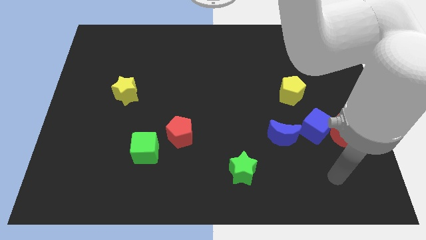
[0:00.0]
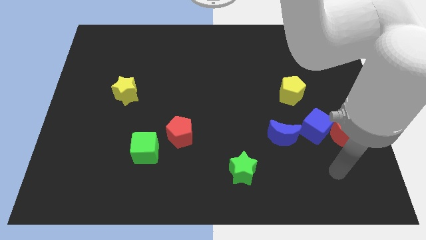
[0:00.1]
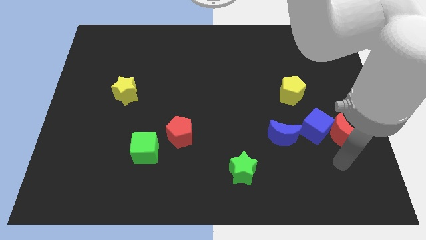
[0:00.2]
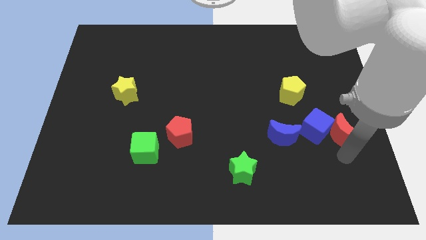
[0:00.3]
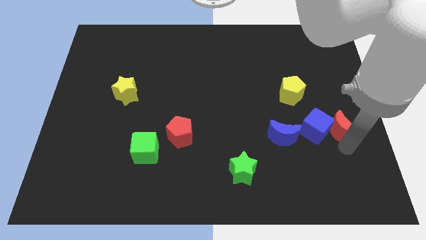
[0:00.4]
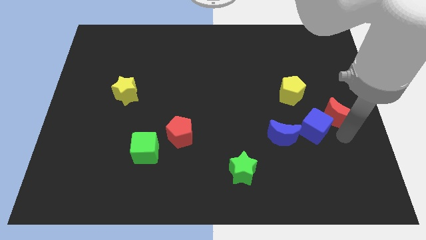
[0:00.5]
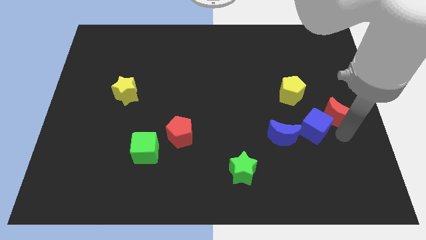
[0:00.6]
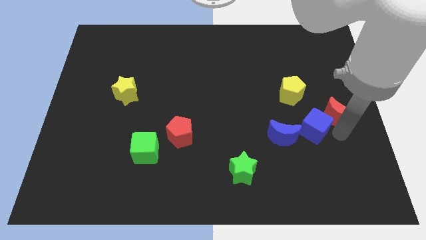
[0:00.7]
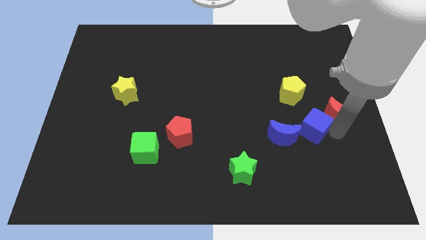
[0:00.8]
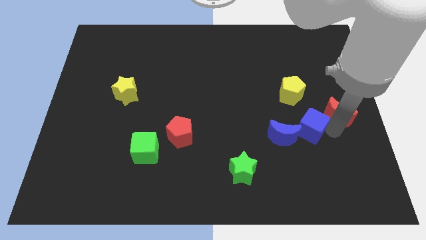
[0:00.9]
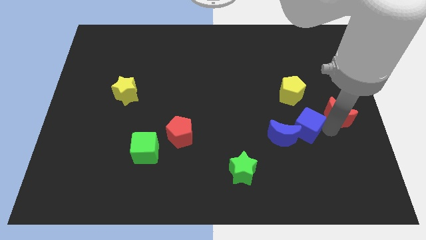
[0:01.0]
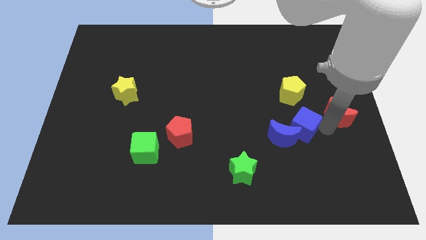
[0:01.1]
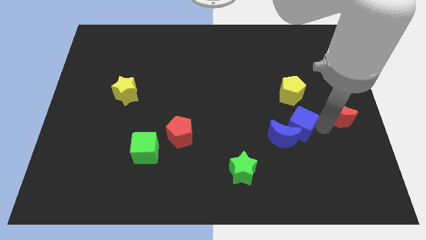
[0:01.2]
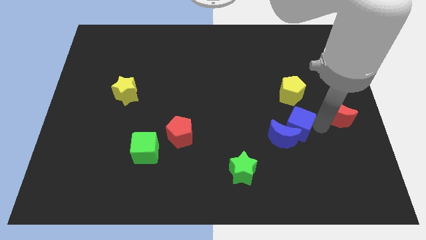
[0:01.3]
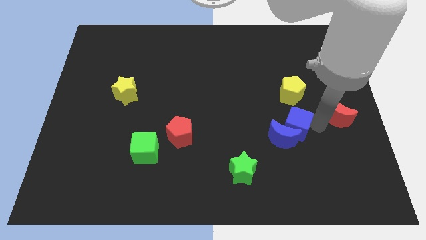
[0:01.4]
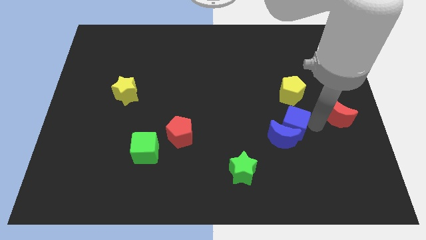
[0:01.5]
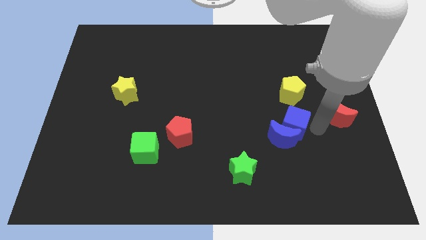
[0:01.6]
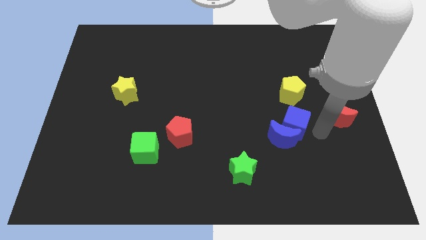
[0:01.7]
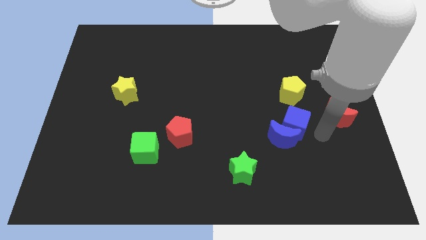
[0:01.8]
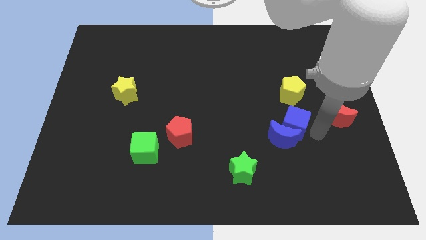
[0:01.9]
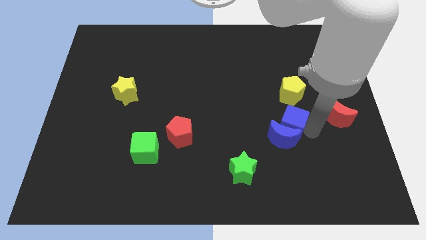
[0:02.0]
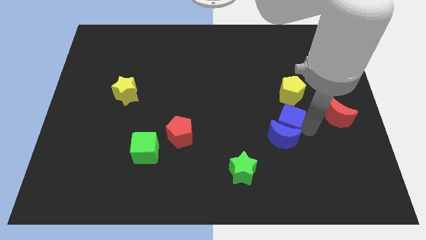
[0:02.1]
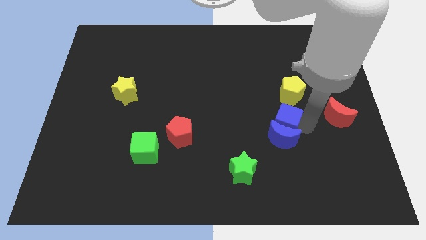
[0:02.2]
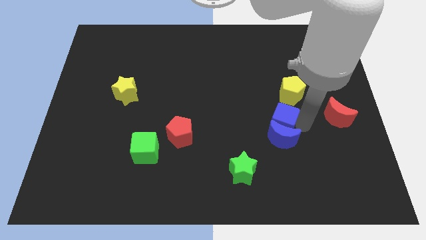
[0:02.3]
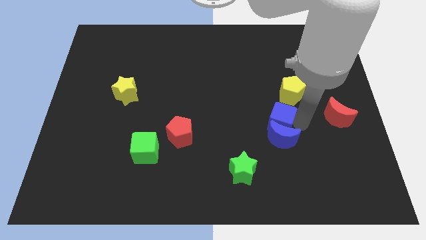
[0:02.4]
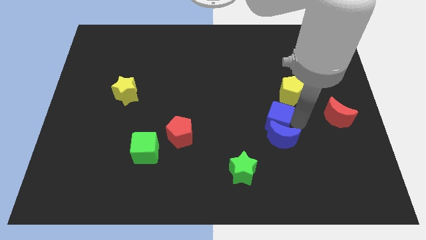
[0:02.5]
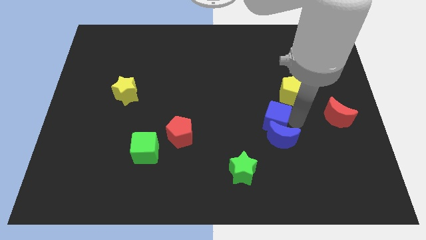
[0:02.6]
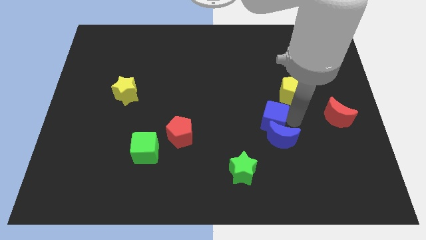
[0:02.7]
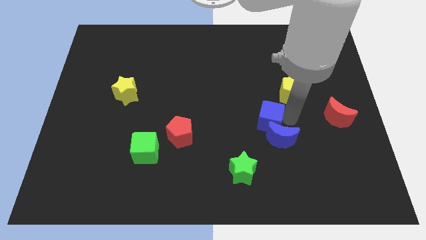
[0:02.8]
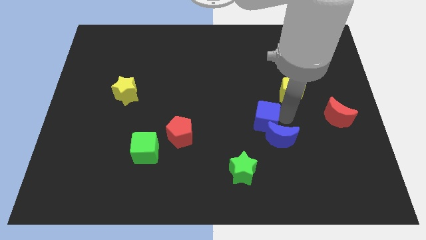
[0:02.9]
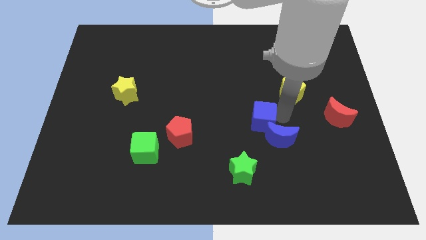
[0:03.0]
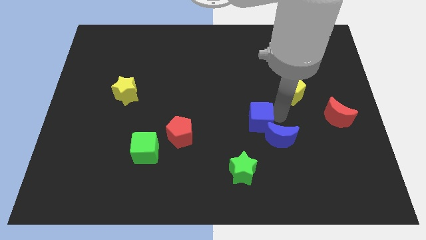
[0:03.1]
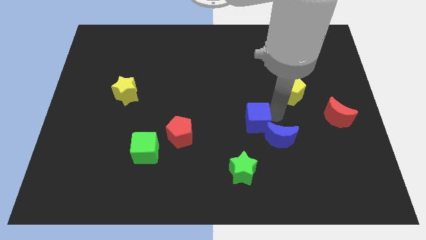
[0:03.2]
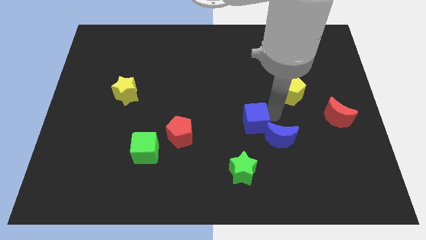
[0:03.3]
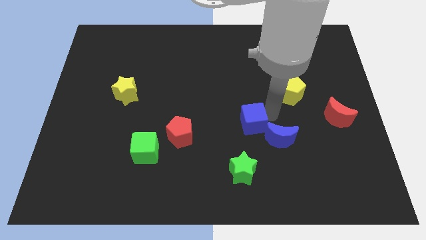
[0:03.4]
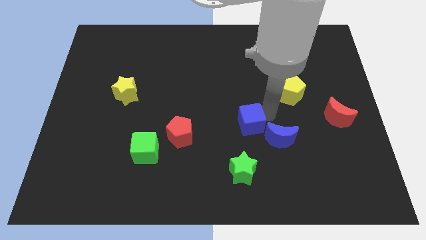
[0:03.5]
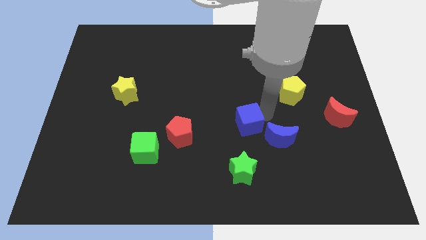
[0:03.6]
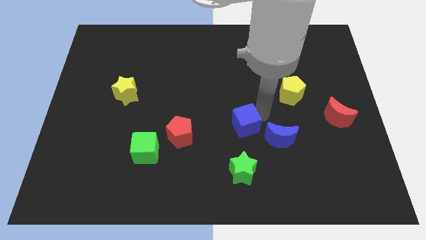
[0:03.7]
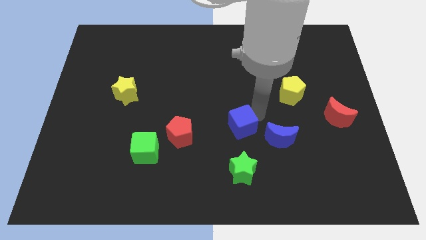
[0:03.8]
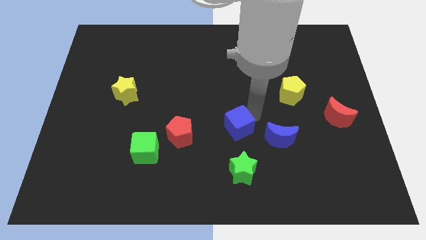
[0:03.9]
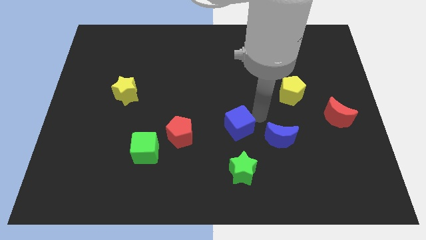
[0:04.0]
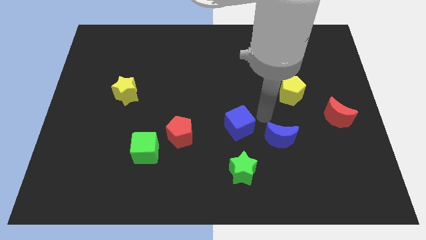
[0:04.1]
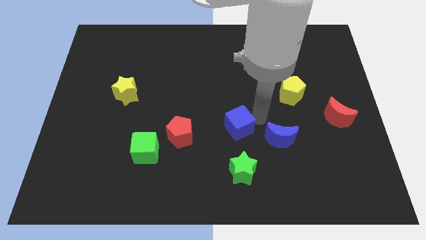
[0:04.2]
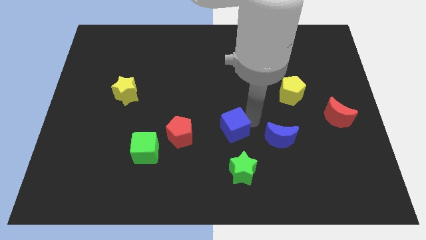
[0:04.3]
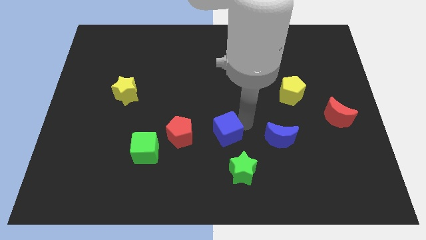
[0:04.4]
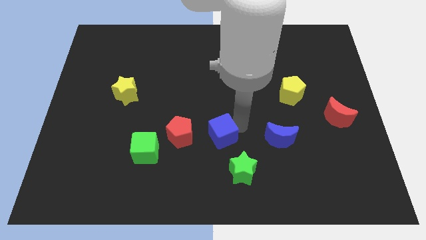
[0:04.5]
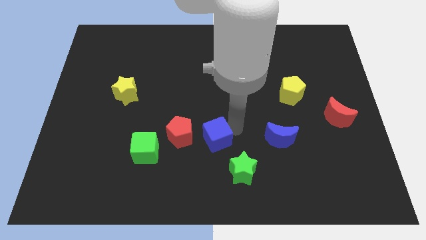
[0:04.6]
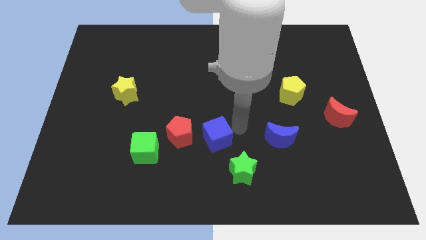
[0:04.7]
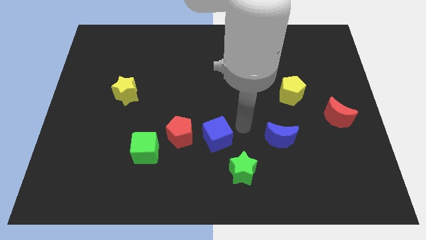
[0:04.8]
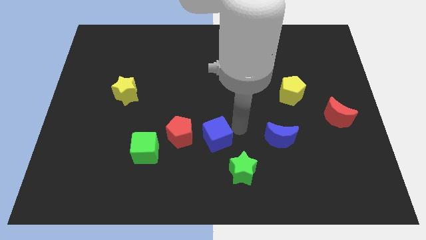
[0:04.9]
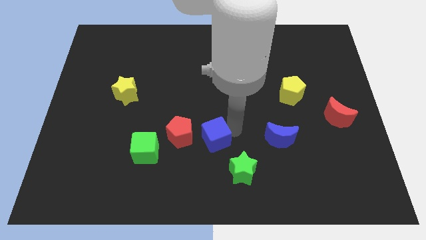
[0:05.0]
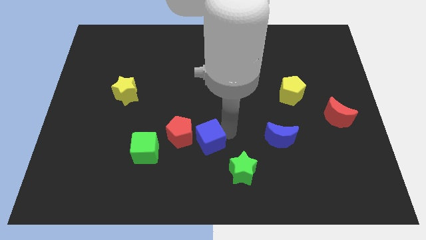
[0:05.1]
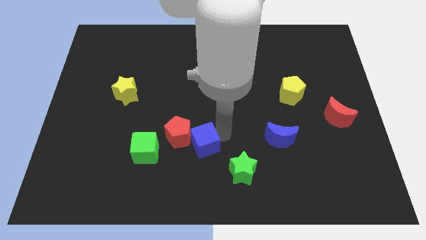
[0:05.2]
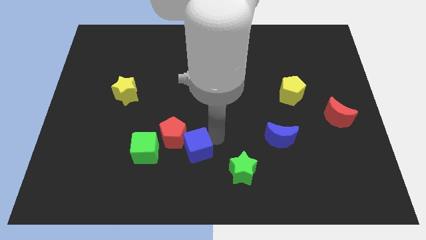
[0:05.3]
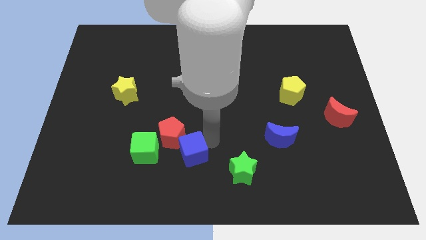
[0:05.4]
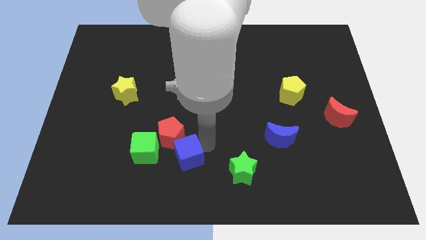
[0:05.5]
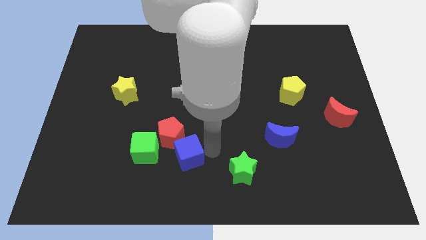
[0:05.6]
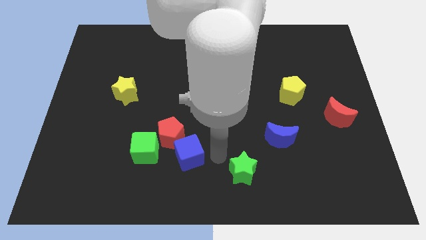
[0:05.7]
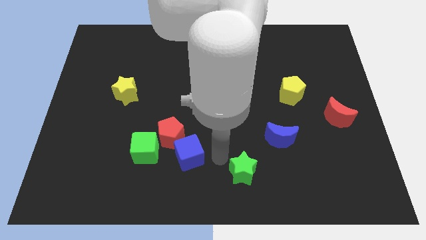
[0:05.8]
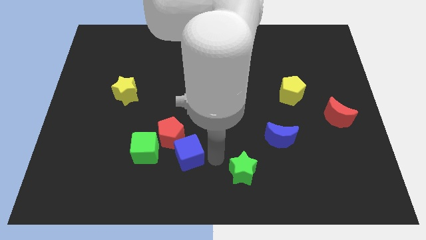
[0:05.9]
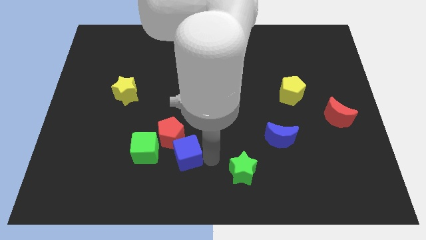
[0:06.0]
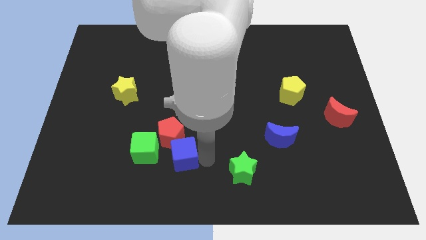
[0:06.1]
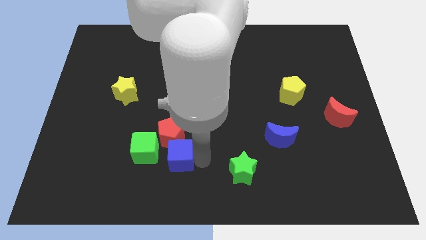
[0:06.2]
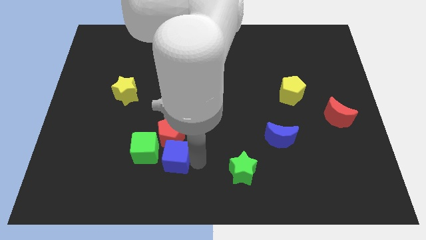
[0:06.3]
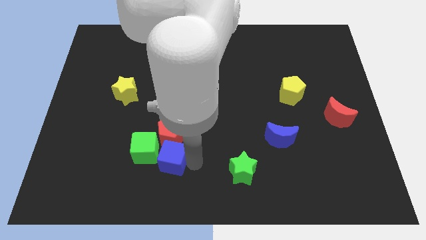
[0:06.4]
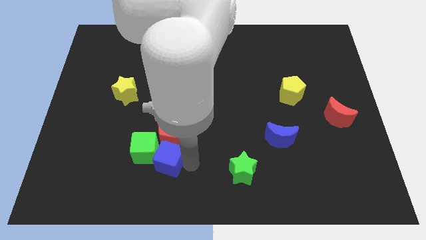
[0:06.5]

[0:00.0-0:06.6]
move the blue cube towards the green cube

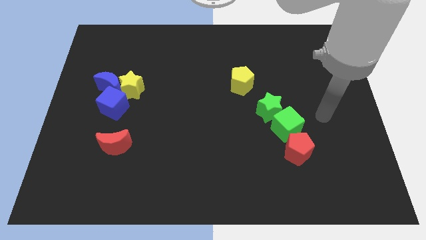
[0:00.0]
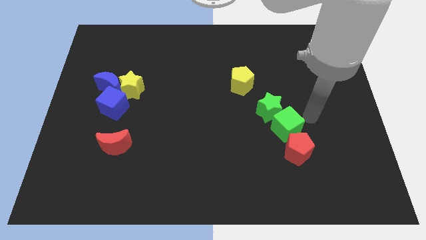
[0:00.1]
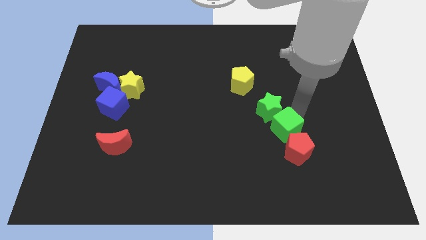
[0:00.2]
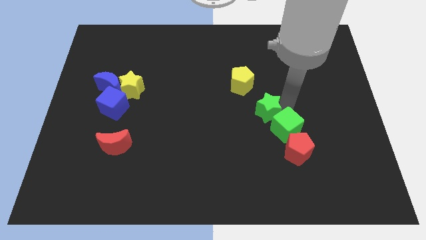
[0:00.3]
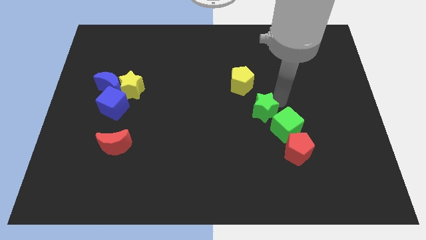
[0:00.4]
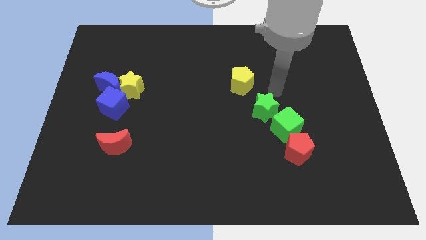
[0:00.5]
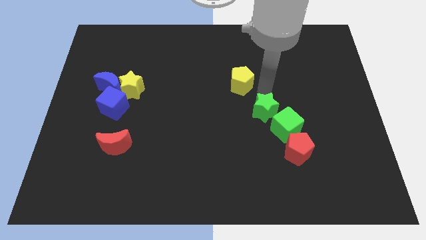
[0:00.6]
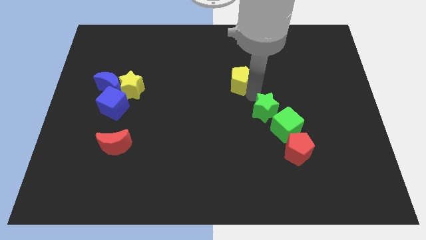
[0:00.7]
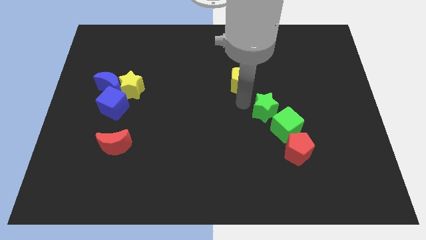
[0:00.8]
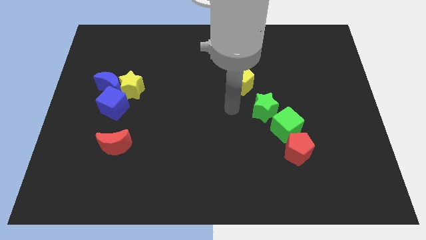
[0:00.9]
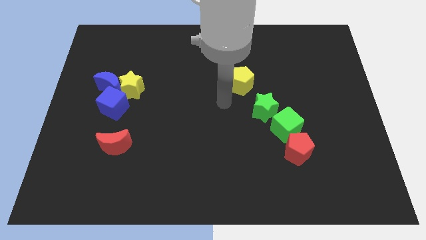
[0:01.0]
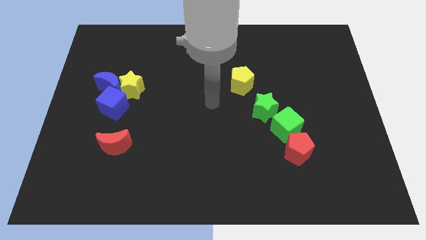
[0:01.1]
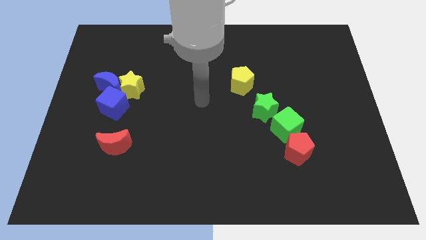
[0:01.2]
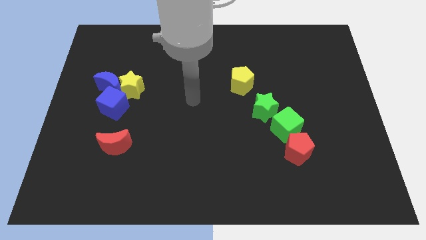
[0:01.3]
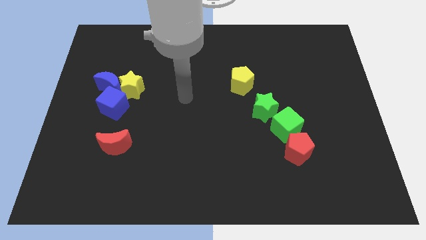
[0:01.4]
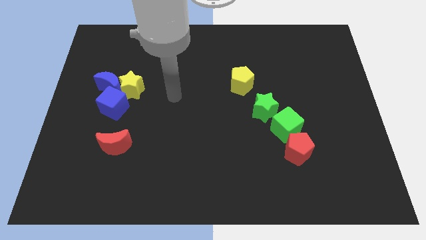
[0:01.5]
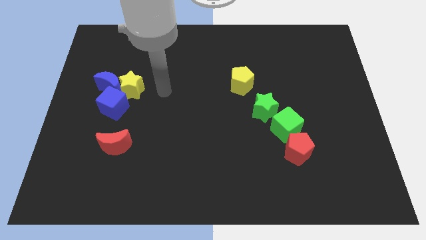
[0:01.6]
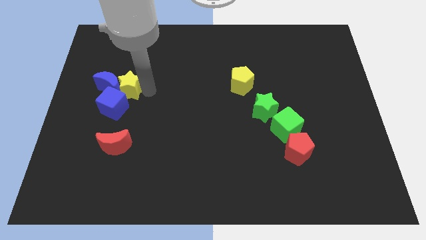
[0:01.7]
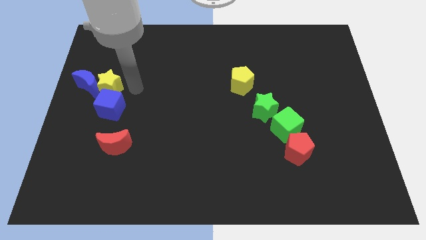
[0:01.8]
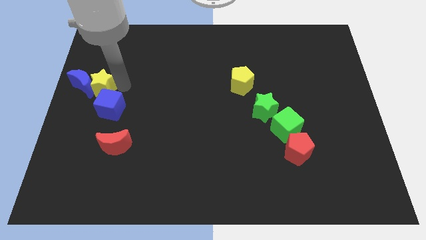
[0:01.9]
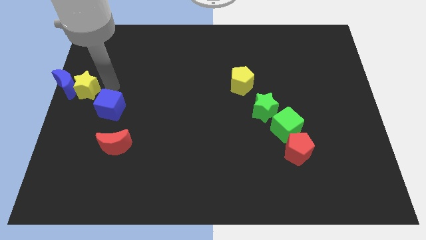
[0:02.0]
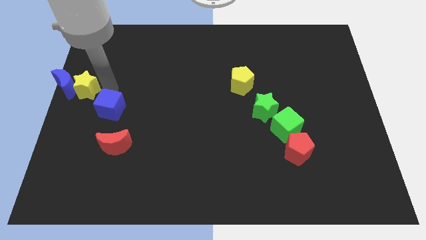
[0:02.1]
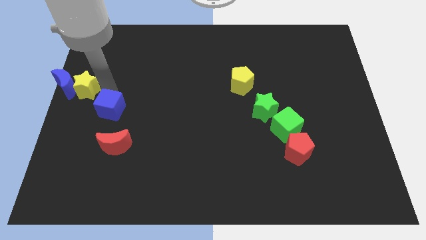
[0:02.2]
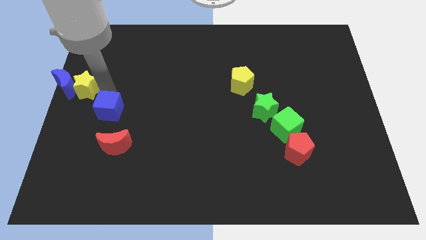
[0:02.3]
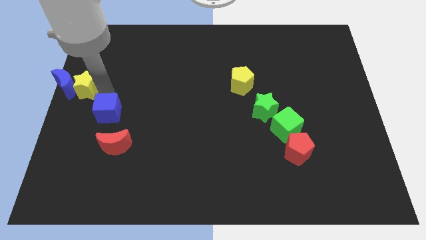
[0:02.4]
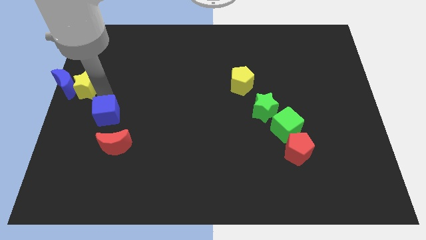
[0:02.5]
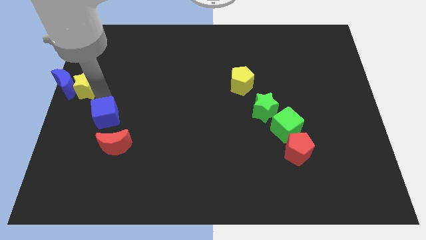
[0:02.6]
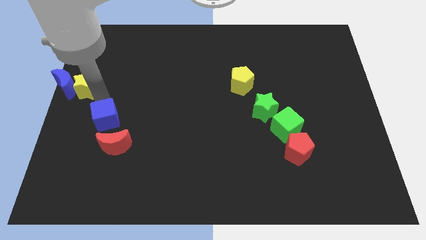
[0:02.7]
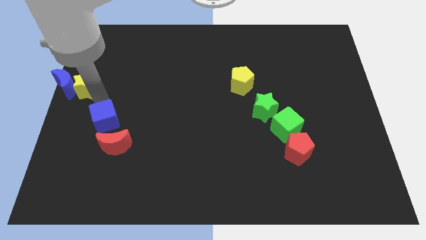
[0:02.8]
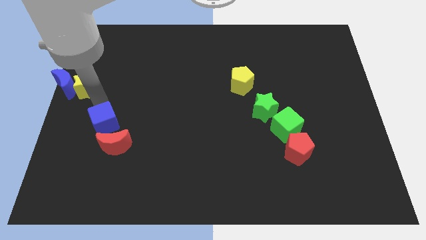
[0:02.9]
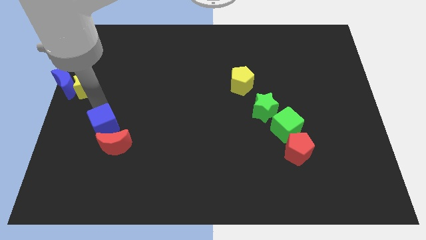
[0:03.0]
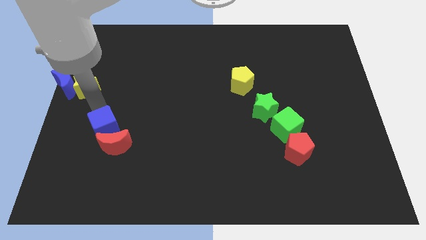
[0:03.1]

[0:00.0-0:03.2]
slide the blue cube next to the red moon
